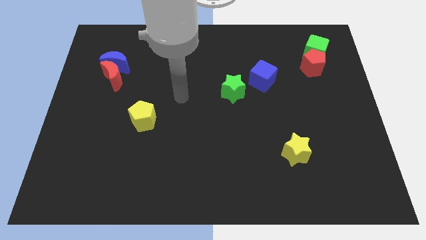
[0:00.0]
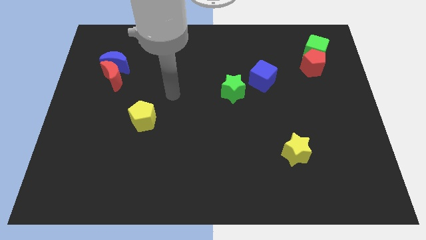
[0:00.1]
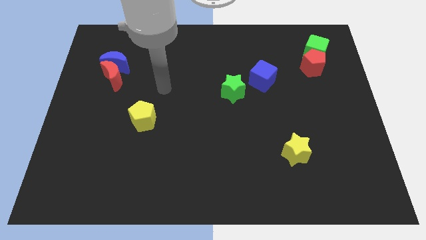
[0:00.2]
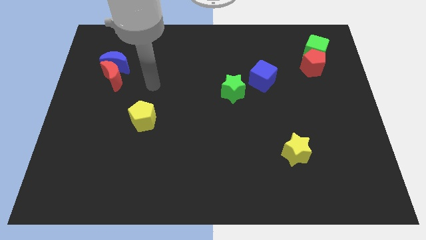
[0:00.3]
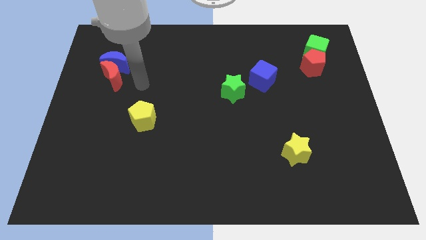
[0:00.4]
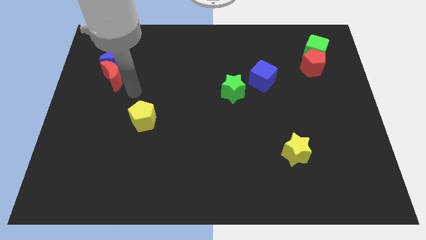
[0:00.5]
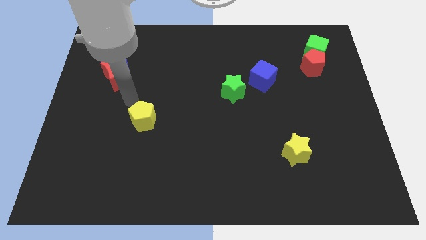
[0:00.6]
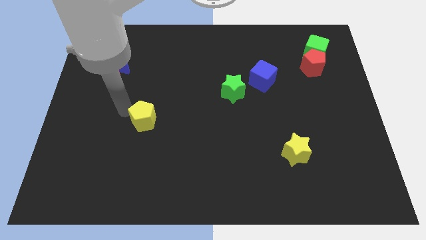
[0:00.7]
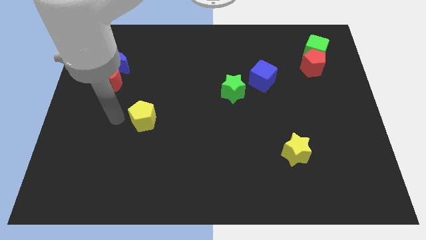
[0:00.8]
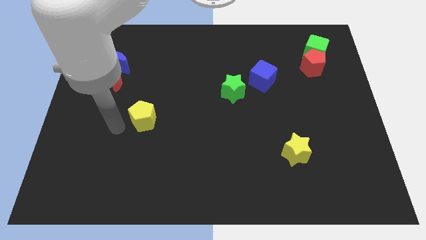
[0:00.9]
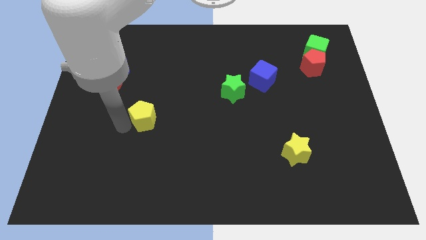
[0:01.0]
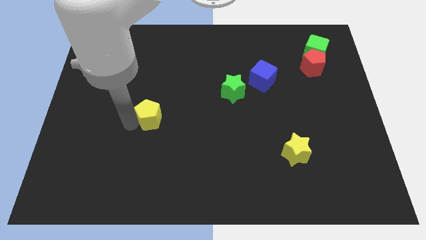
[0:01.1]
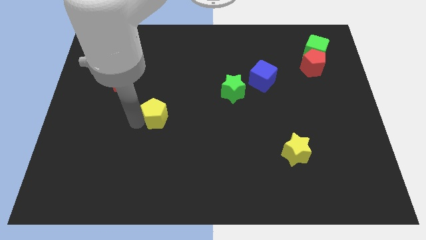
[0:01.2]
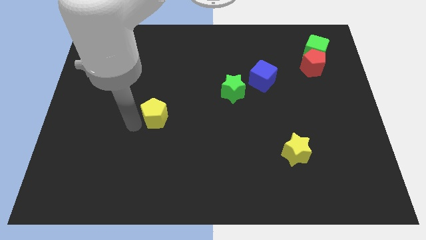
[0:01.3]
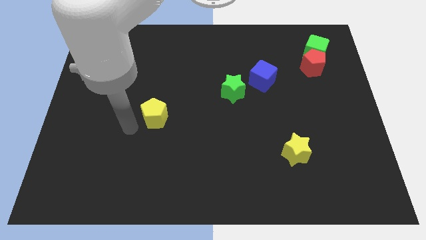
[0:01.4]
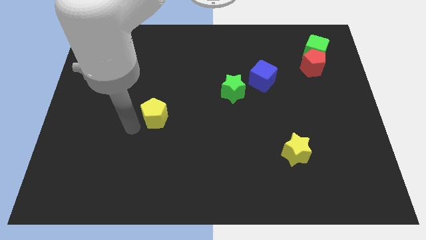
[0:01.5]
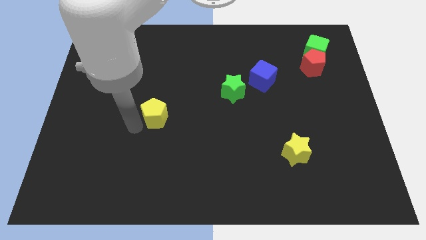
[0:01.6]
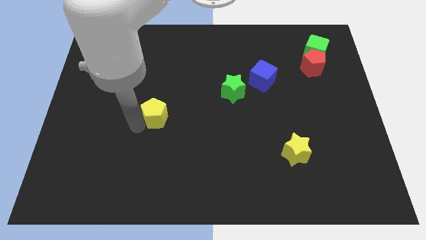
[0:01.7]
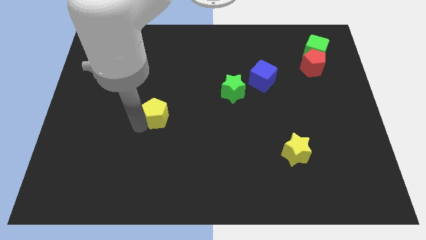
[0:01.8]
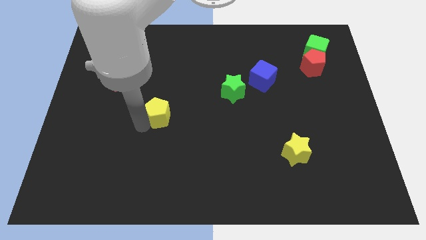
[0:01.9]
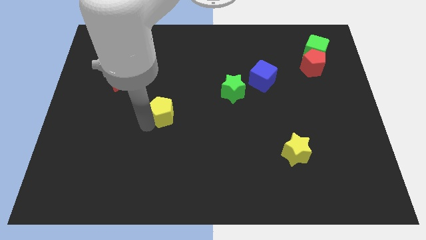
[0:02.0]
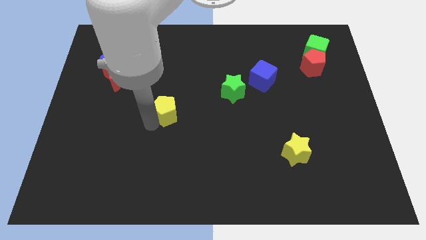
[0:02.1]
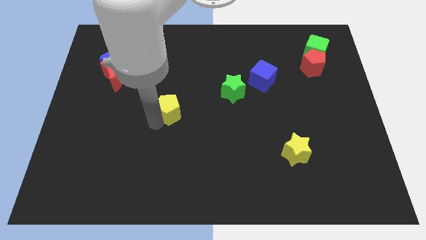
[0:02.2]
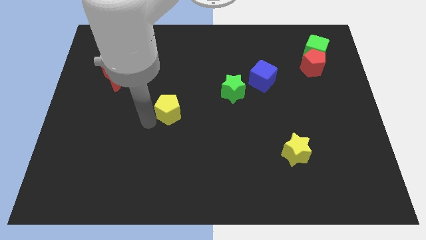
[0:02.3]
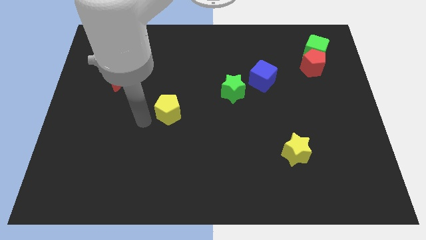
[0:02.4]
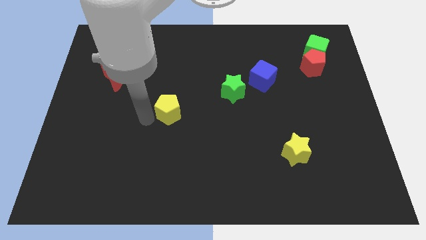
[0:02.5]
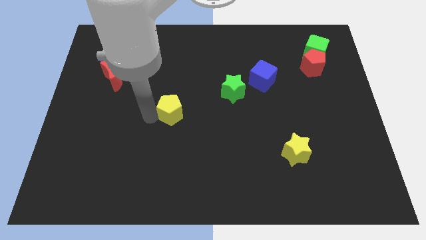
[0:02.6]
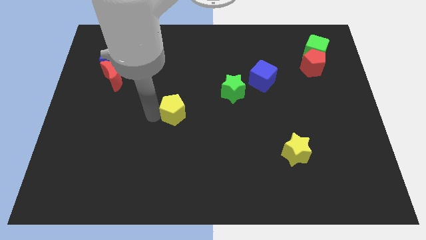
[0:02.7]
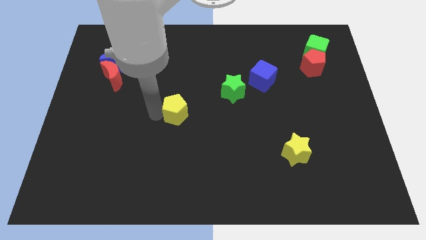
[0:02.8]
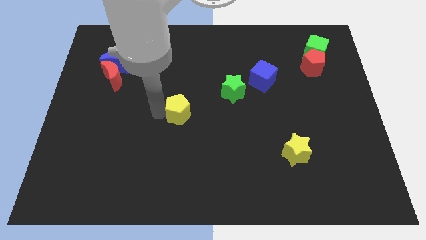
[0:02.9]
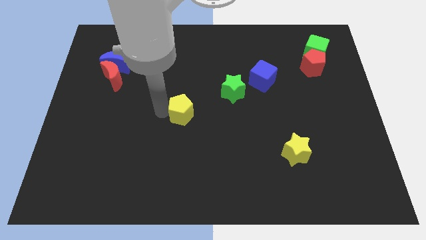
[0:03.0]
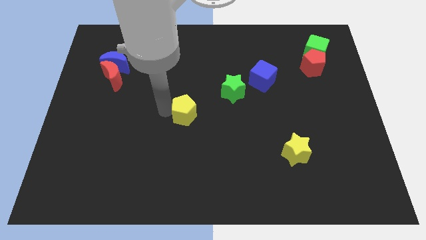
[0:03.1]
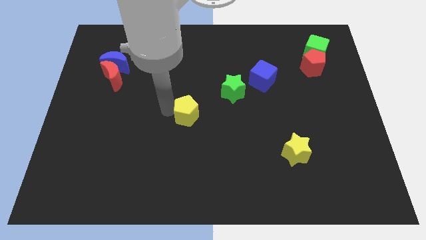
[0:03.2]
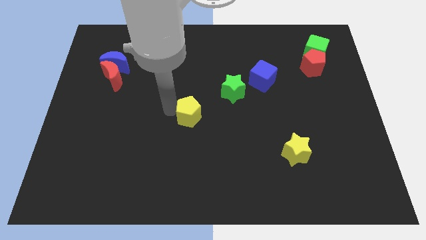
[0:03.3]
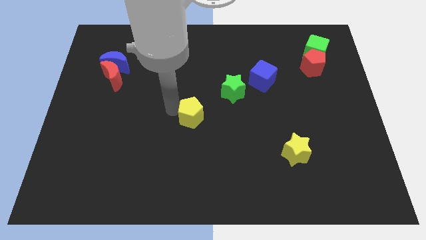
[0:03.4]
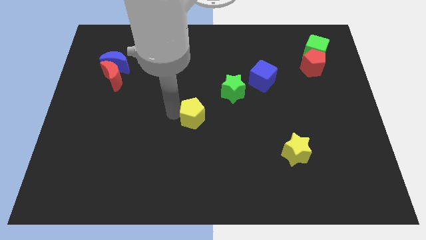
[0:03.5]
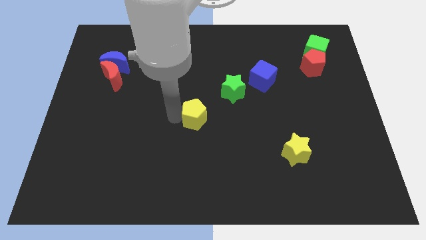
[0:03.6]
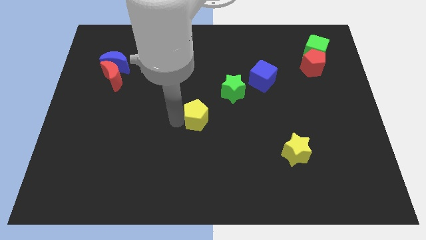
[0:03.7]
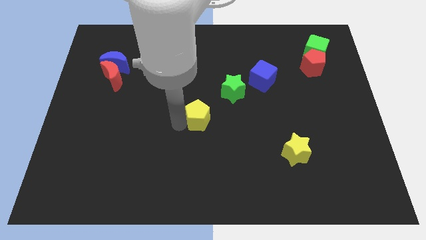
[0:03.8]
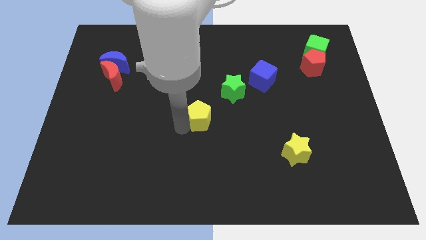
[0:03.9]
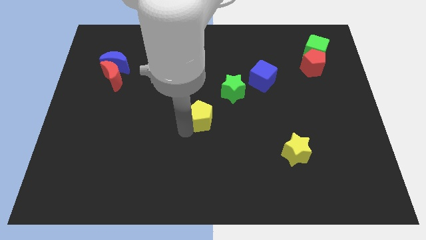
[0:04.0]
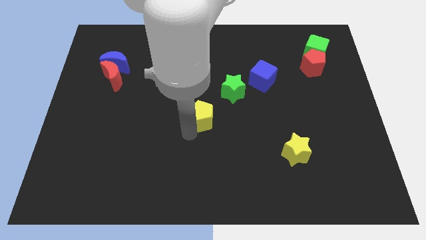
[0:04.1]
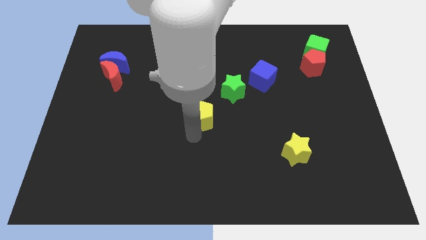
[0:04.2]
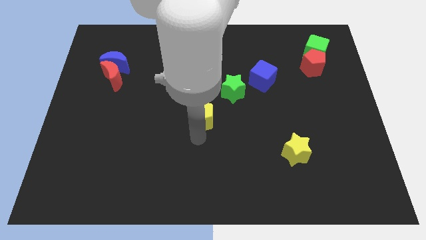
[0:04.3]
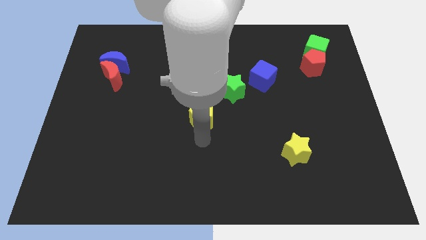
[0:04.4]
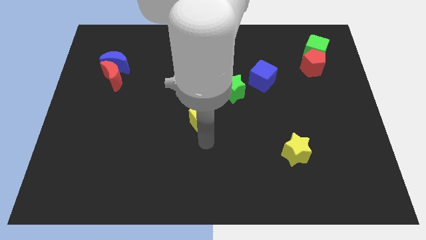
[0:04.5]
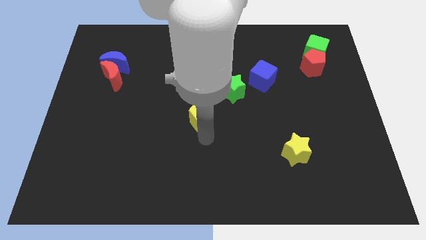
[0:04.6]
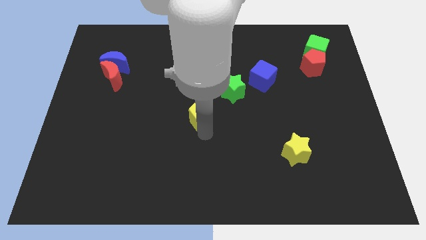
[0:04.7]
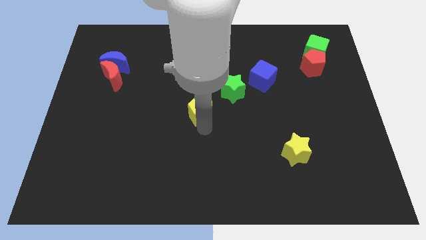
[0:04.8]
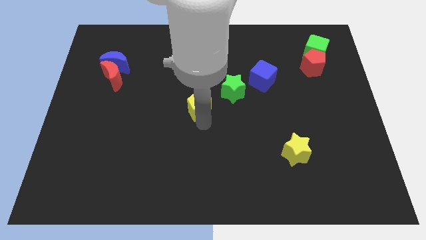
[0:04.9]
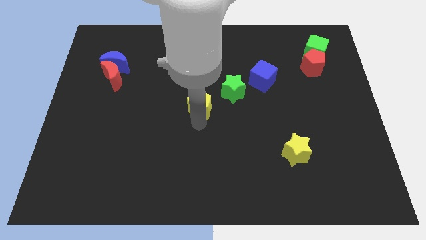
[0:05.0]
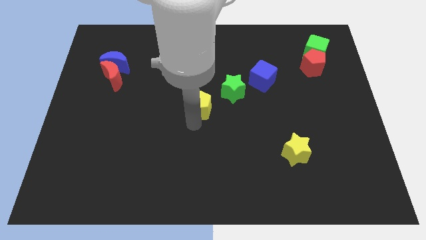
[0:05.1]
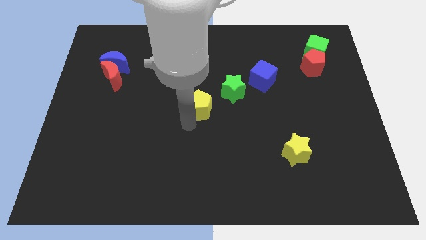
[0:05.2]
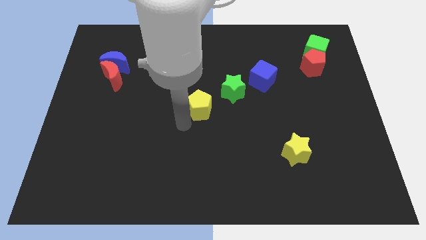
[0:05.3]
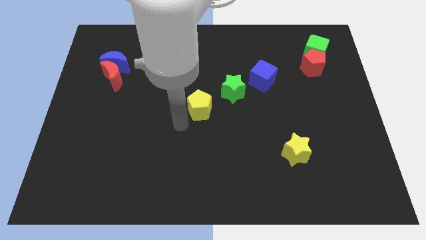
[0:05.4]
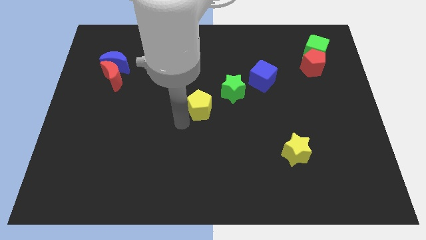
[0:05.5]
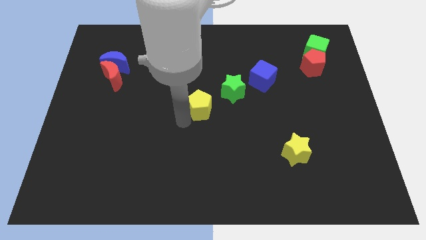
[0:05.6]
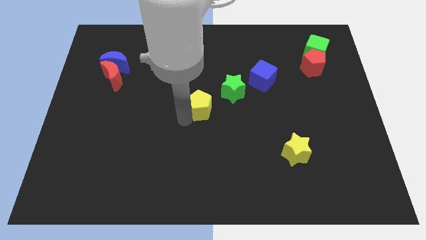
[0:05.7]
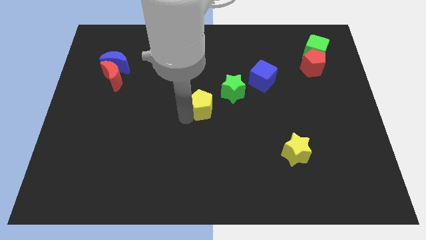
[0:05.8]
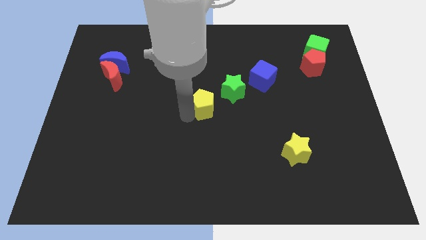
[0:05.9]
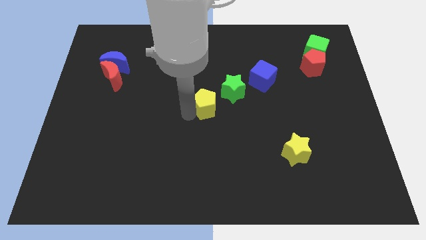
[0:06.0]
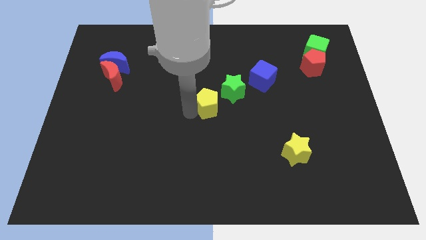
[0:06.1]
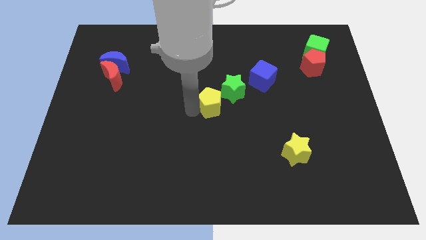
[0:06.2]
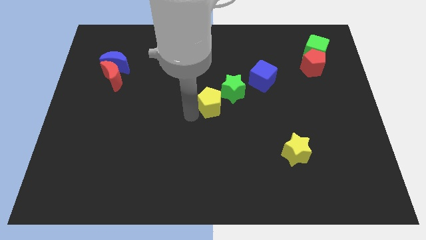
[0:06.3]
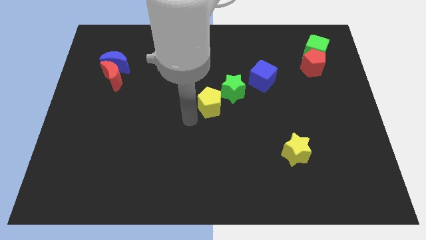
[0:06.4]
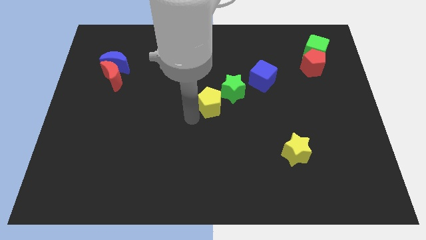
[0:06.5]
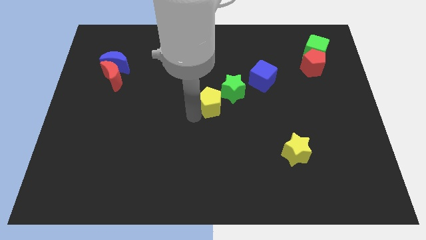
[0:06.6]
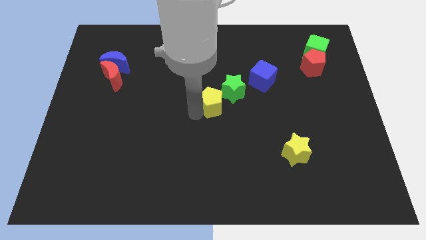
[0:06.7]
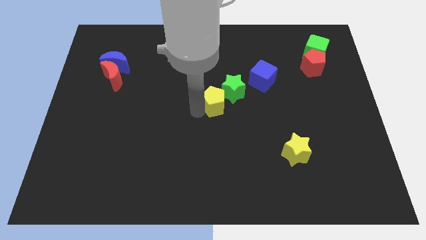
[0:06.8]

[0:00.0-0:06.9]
push the yellow pentagon to the green star

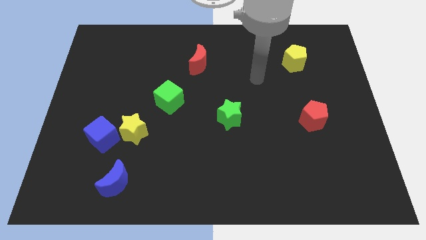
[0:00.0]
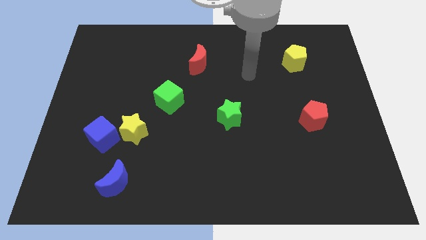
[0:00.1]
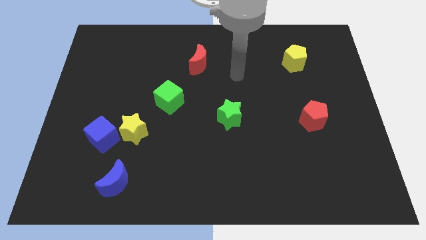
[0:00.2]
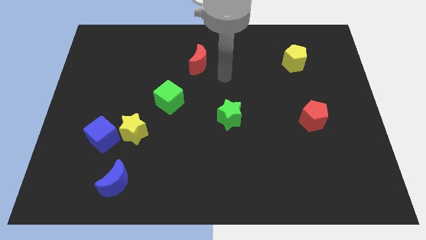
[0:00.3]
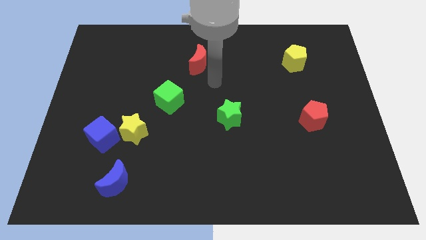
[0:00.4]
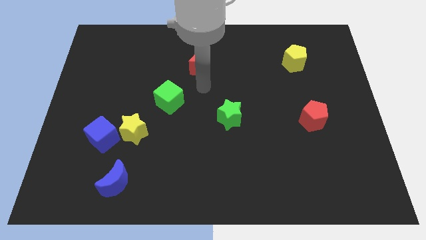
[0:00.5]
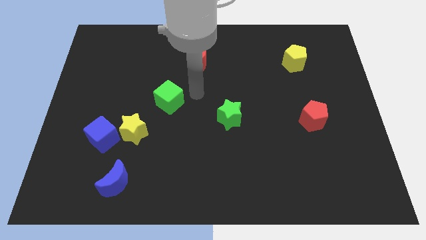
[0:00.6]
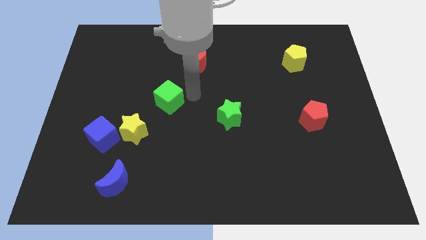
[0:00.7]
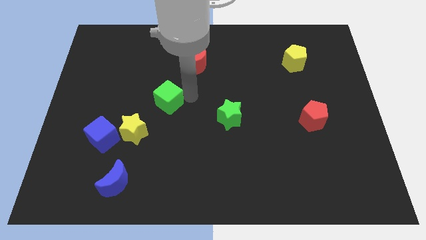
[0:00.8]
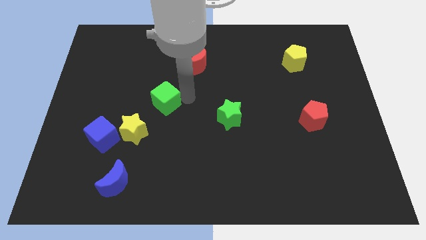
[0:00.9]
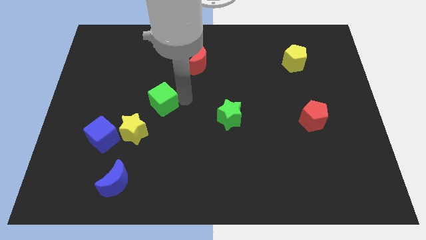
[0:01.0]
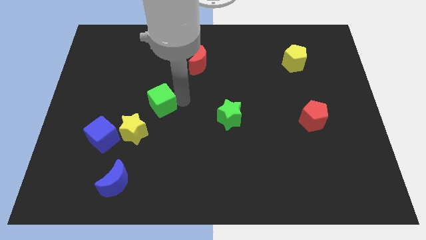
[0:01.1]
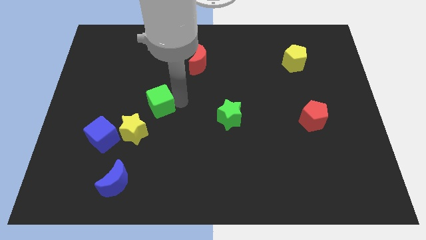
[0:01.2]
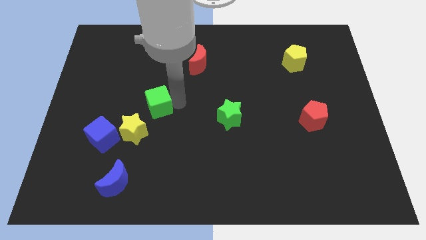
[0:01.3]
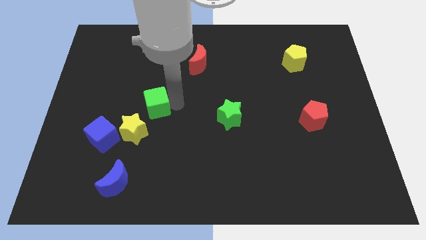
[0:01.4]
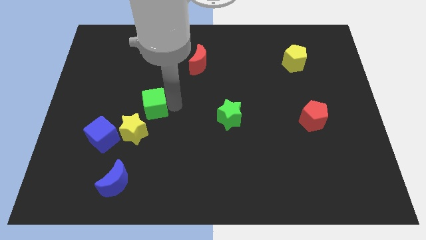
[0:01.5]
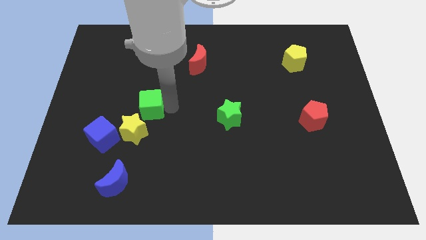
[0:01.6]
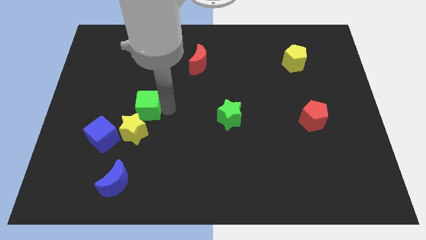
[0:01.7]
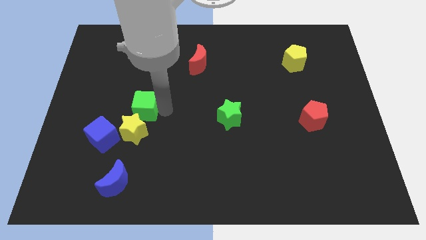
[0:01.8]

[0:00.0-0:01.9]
slide the green cube next to the yellow star
